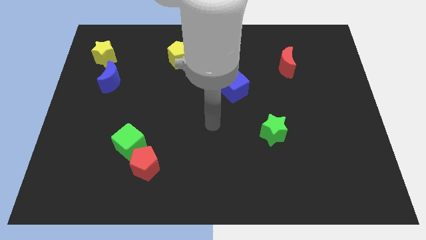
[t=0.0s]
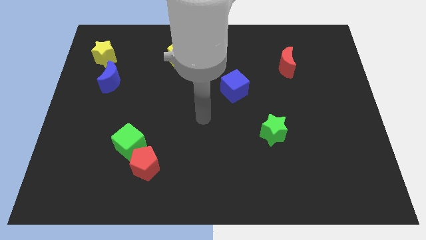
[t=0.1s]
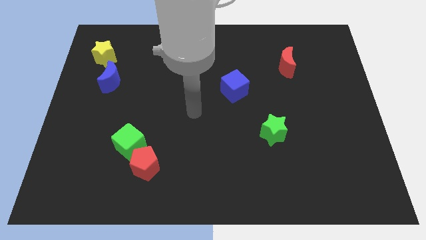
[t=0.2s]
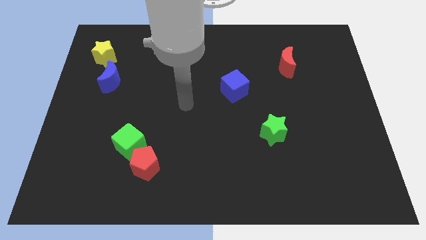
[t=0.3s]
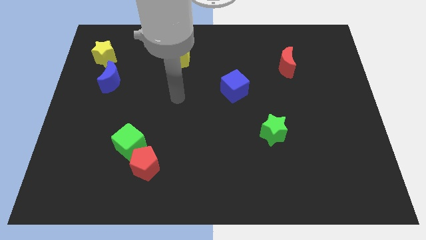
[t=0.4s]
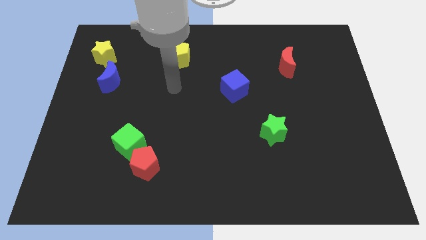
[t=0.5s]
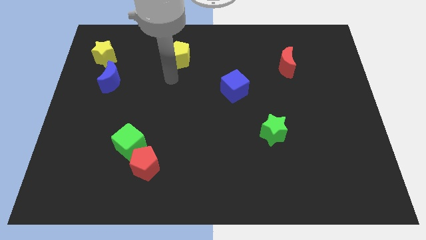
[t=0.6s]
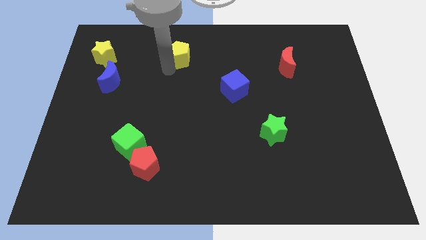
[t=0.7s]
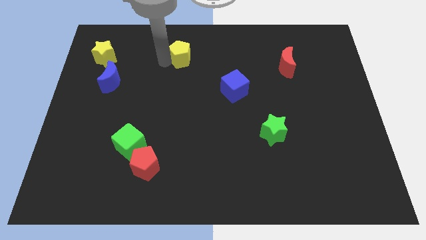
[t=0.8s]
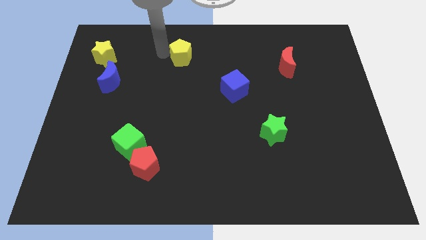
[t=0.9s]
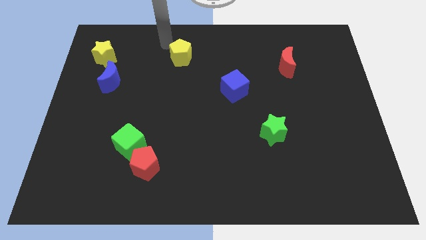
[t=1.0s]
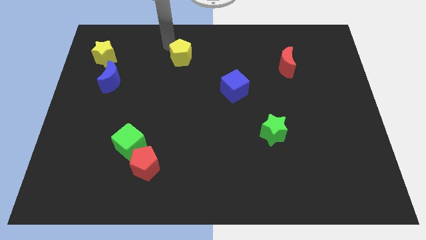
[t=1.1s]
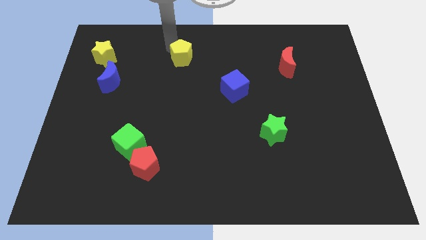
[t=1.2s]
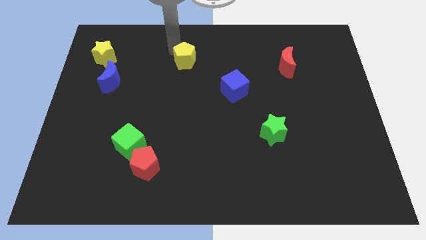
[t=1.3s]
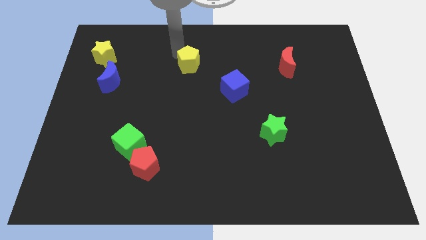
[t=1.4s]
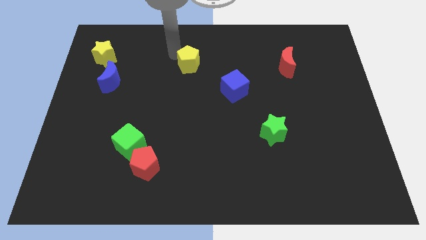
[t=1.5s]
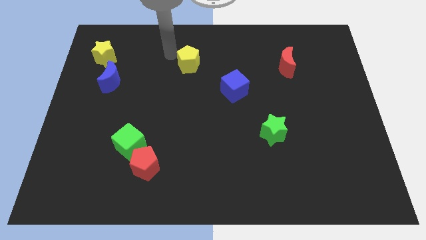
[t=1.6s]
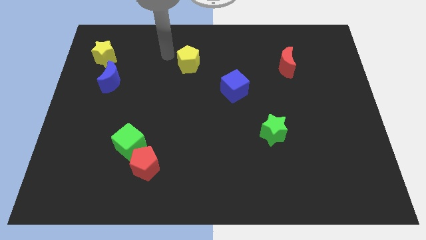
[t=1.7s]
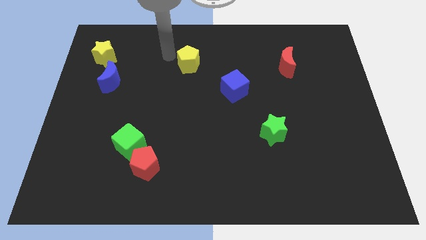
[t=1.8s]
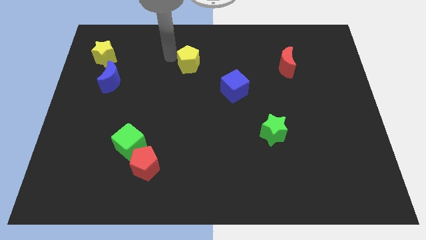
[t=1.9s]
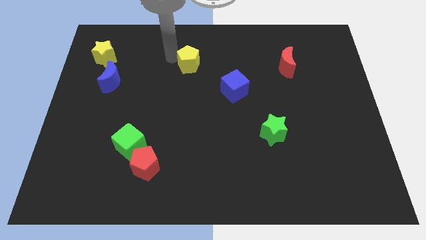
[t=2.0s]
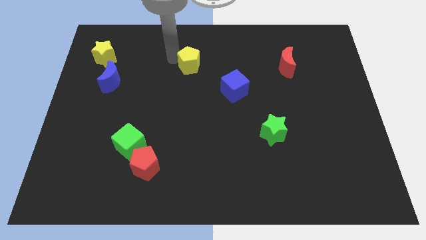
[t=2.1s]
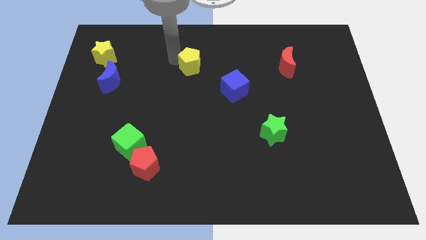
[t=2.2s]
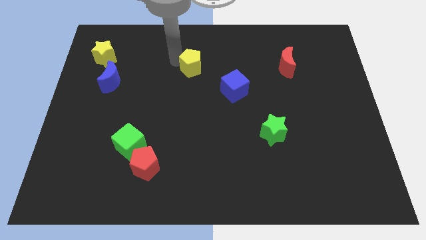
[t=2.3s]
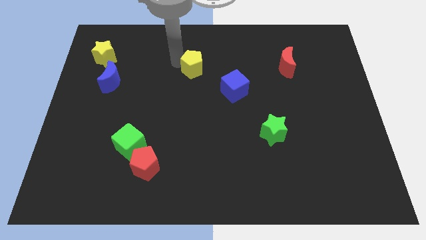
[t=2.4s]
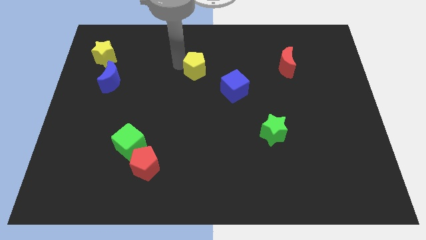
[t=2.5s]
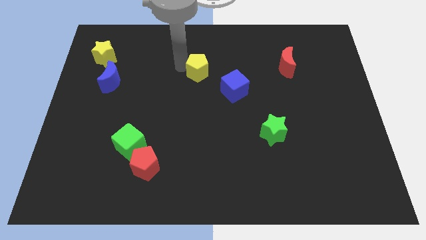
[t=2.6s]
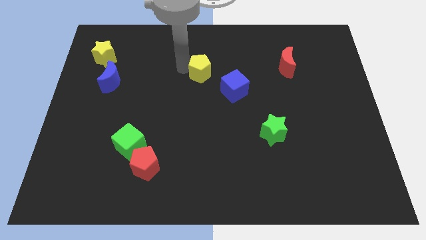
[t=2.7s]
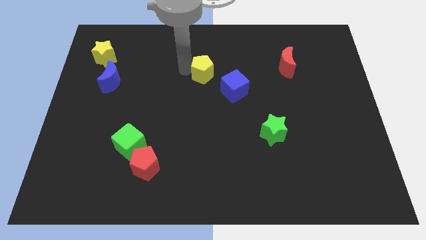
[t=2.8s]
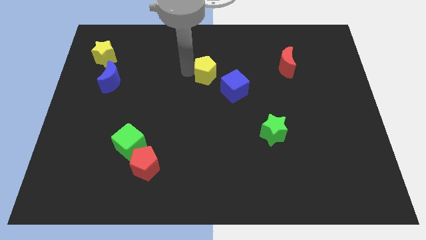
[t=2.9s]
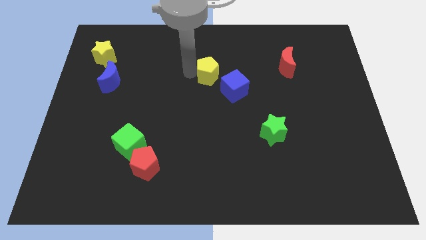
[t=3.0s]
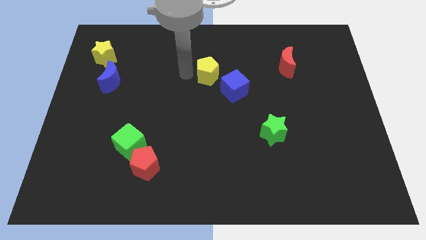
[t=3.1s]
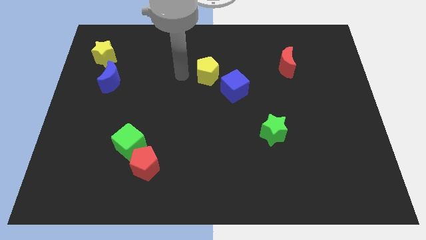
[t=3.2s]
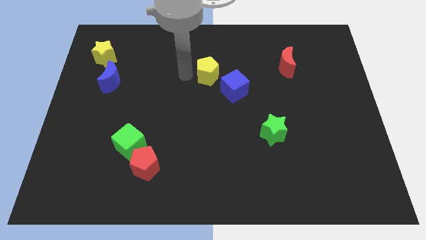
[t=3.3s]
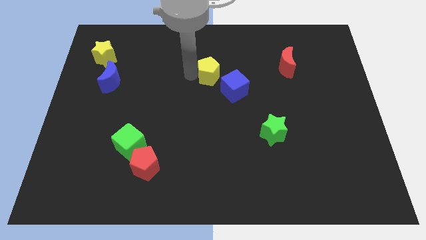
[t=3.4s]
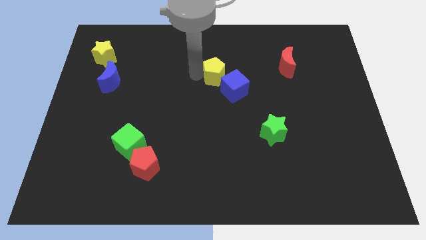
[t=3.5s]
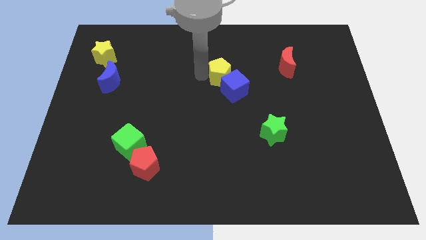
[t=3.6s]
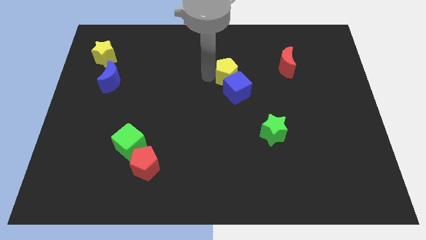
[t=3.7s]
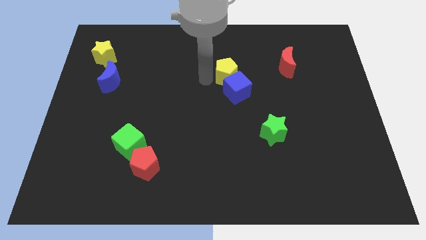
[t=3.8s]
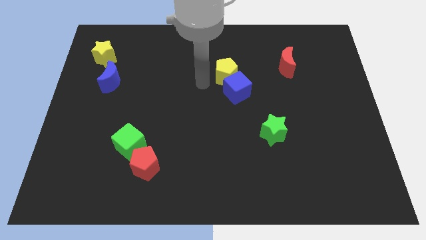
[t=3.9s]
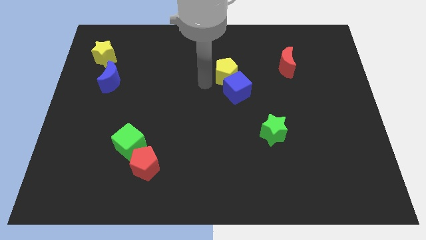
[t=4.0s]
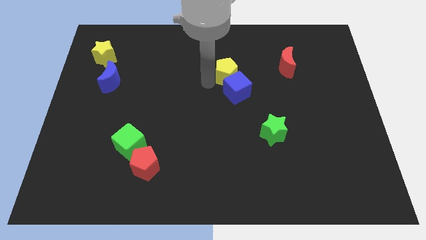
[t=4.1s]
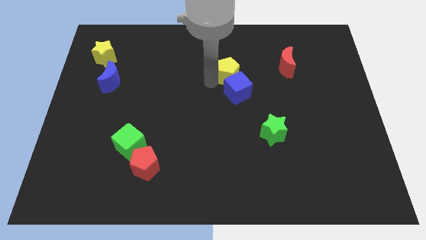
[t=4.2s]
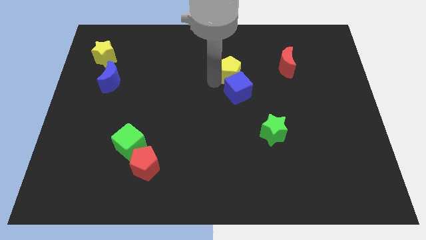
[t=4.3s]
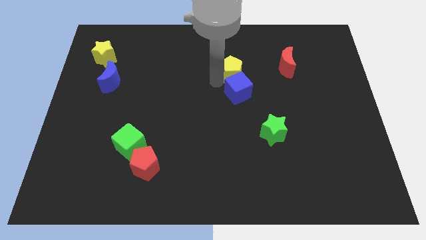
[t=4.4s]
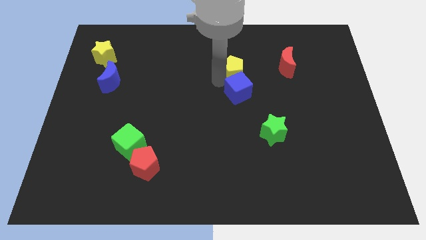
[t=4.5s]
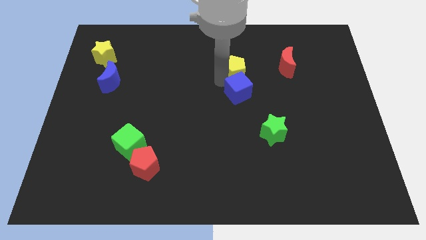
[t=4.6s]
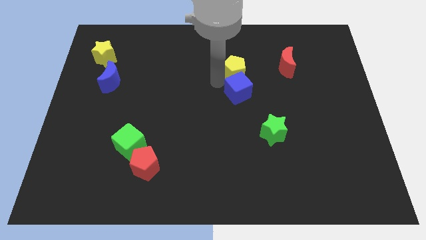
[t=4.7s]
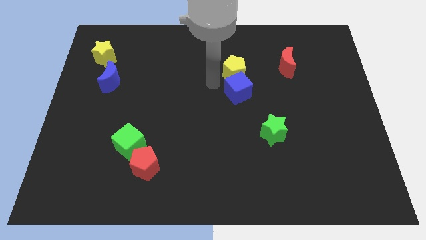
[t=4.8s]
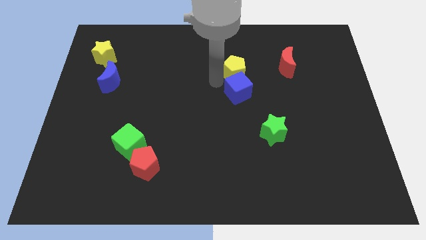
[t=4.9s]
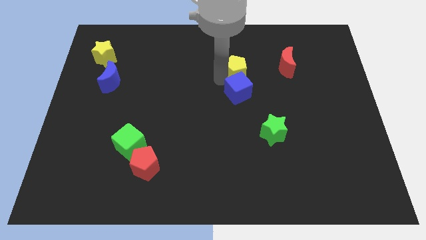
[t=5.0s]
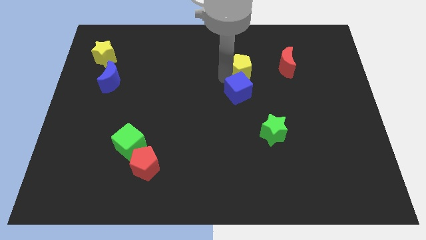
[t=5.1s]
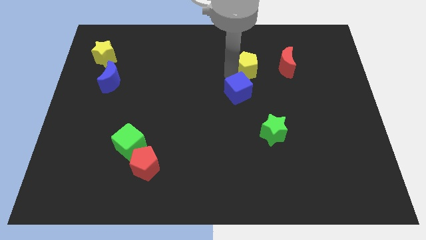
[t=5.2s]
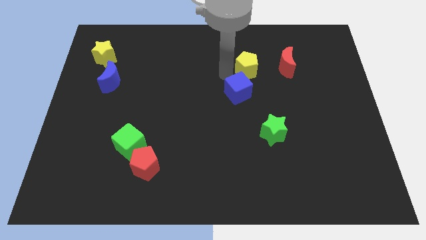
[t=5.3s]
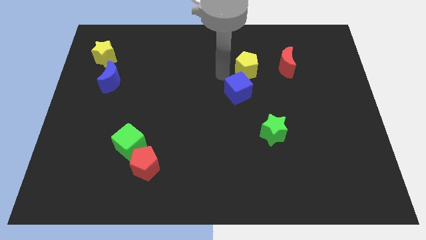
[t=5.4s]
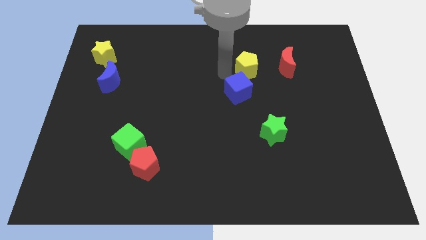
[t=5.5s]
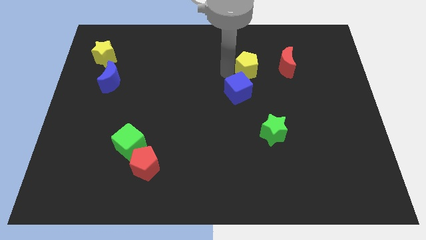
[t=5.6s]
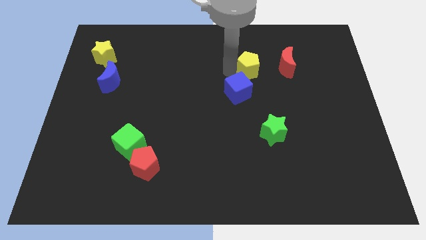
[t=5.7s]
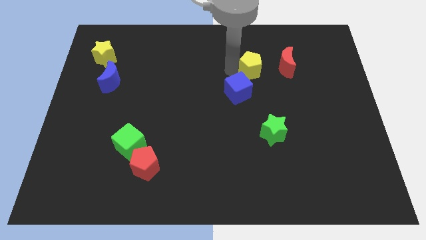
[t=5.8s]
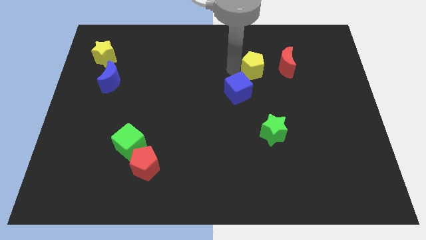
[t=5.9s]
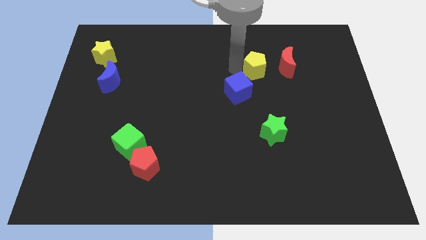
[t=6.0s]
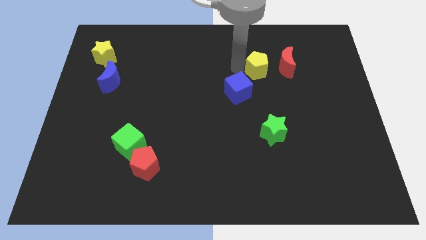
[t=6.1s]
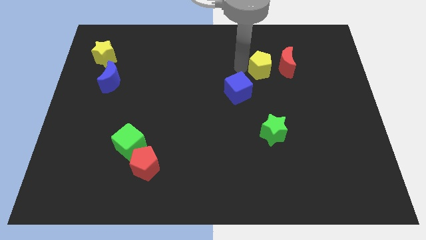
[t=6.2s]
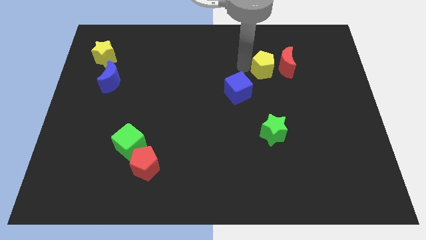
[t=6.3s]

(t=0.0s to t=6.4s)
push the yellow pentagon towards the red moon

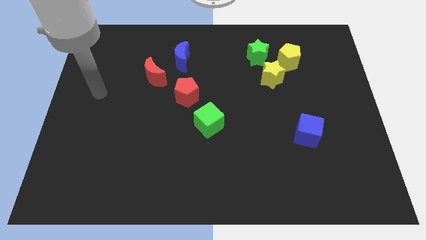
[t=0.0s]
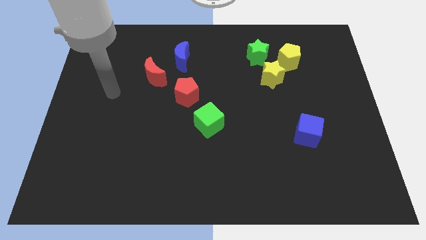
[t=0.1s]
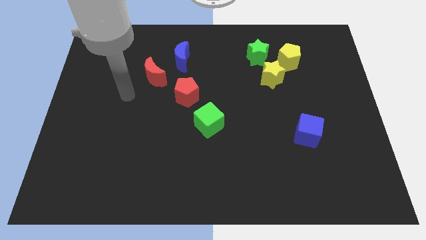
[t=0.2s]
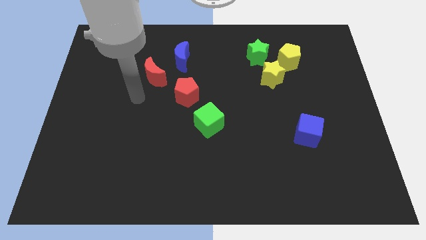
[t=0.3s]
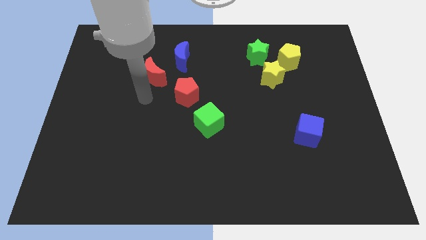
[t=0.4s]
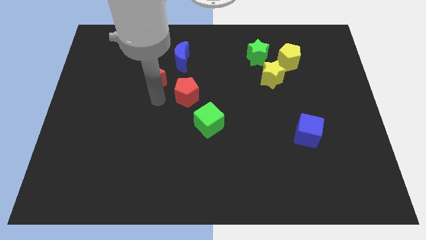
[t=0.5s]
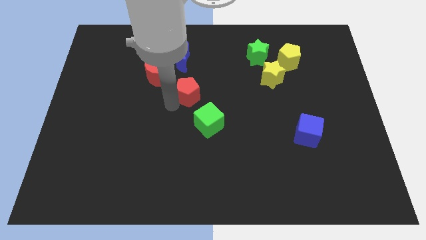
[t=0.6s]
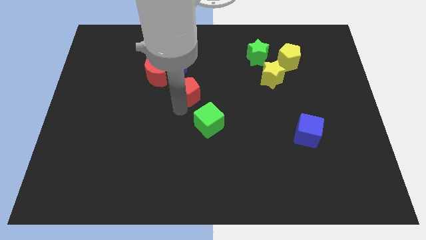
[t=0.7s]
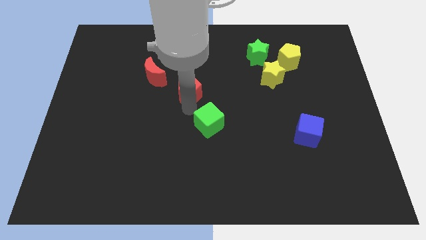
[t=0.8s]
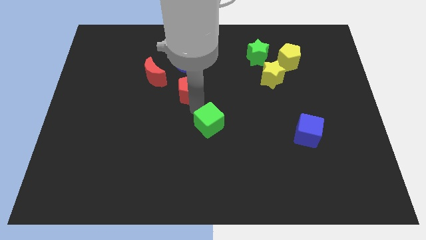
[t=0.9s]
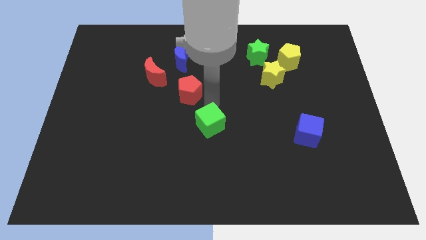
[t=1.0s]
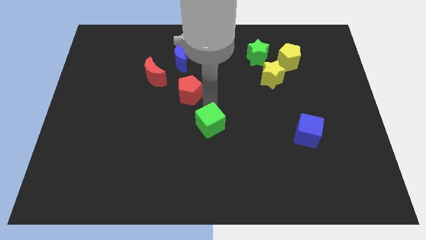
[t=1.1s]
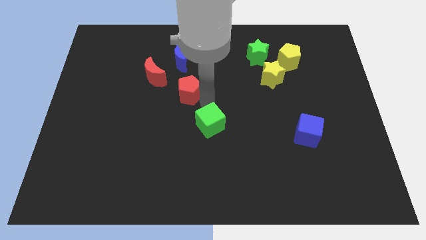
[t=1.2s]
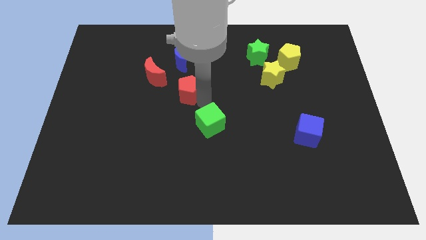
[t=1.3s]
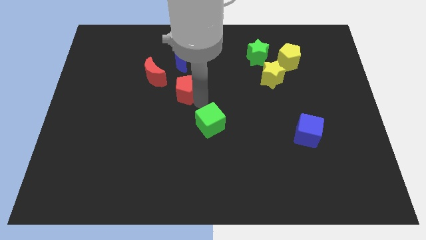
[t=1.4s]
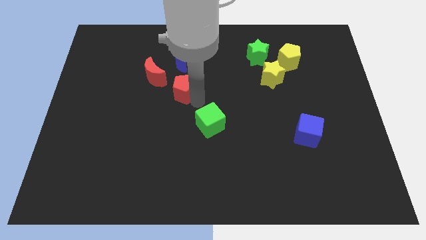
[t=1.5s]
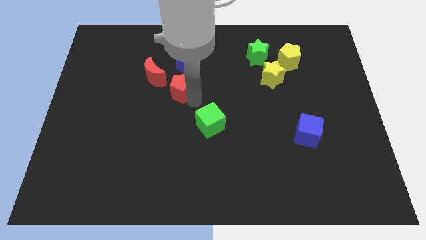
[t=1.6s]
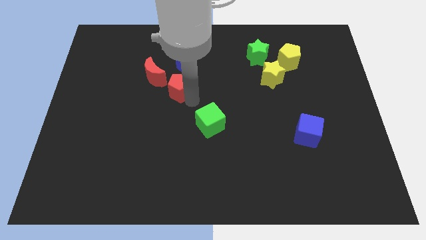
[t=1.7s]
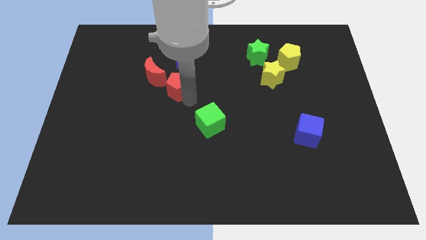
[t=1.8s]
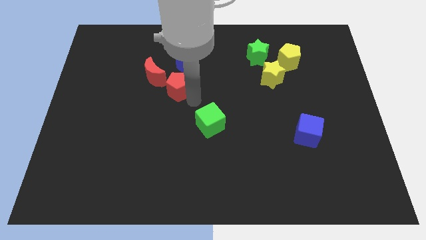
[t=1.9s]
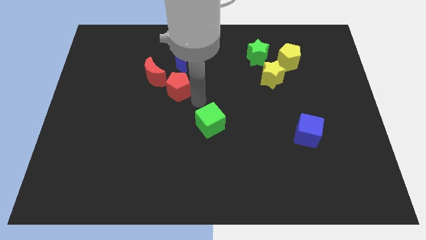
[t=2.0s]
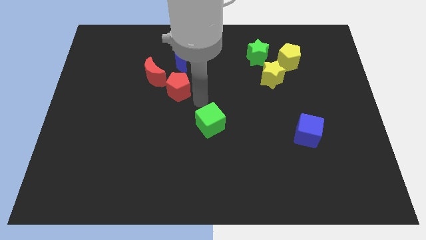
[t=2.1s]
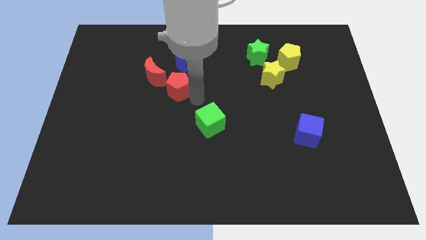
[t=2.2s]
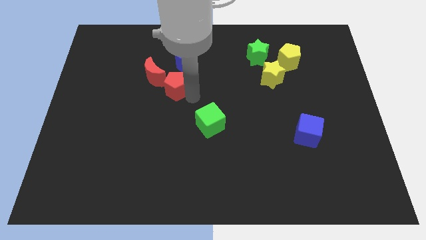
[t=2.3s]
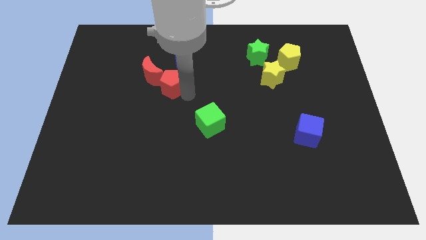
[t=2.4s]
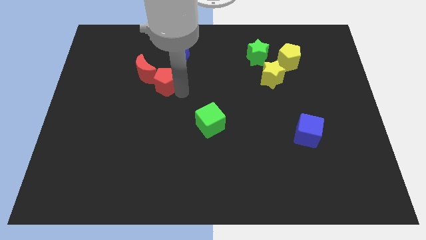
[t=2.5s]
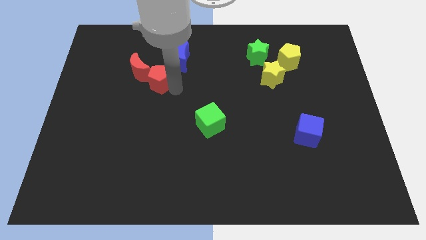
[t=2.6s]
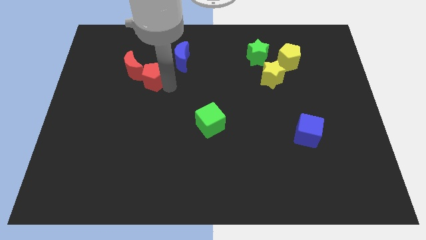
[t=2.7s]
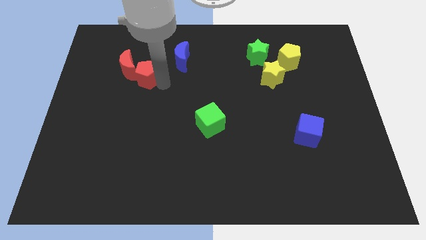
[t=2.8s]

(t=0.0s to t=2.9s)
put the red pentagon next to the red moon
